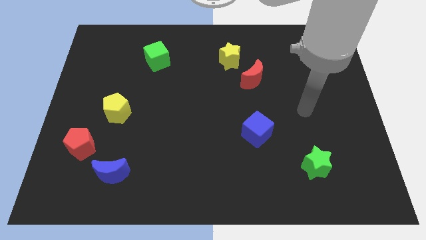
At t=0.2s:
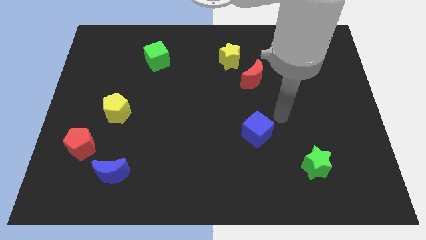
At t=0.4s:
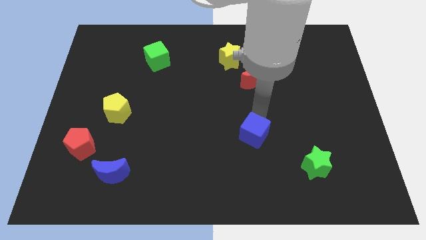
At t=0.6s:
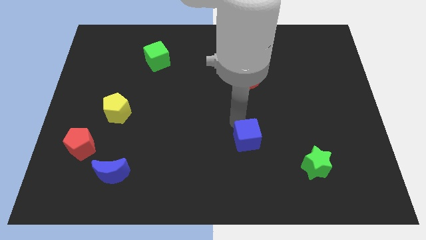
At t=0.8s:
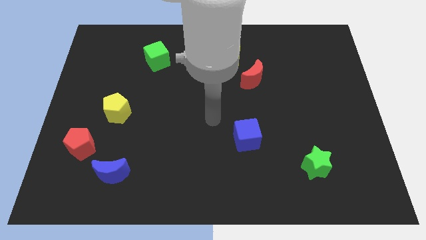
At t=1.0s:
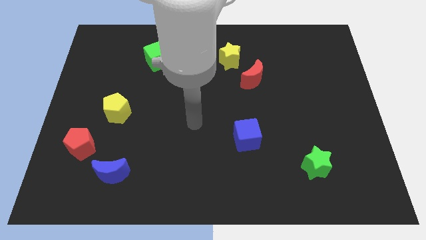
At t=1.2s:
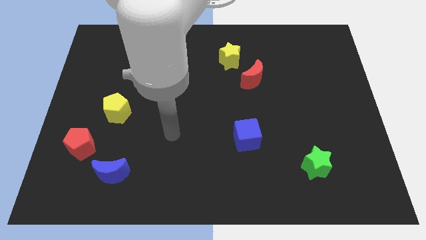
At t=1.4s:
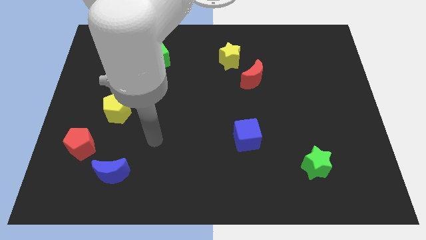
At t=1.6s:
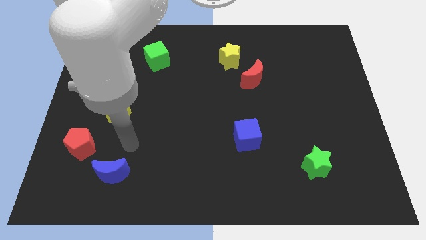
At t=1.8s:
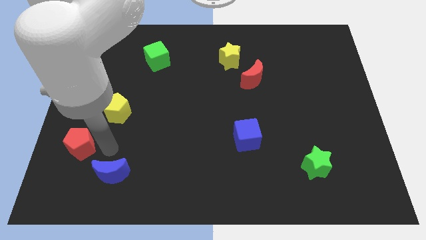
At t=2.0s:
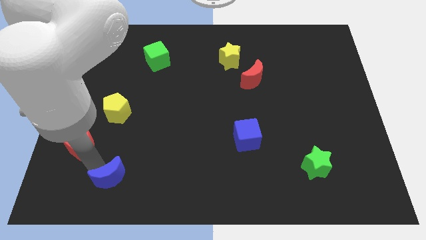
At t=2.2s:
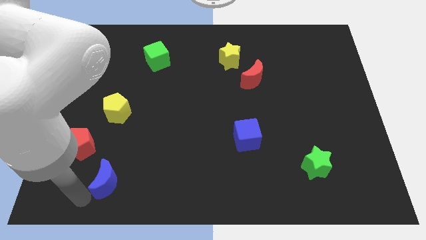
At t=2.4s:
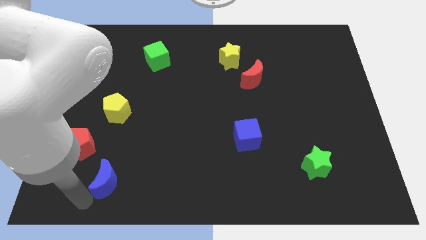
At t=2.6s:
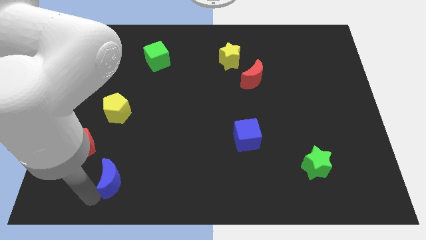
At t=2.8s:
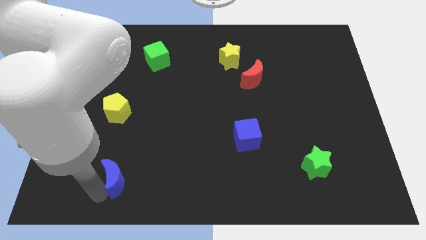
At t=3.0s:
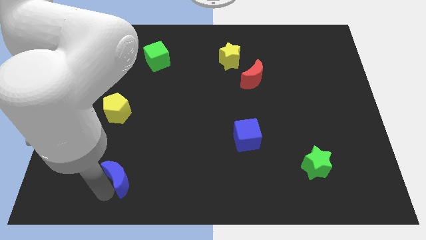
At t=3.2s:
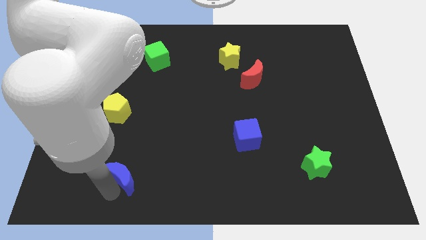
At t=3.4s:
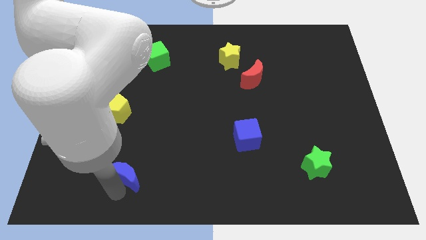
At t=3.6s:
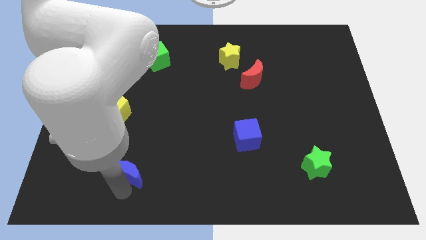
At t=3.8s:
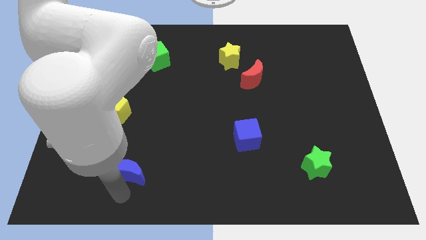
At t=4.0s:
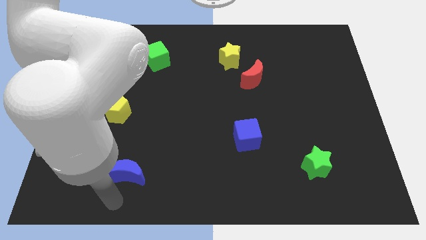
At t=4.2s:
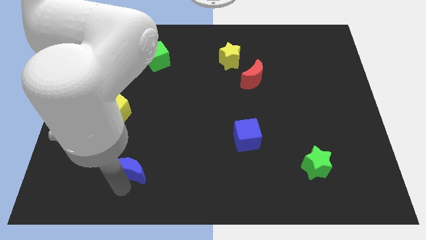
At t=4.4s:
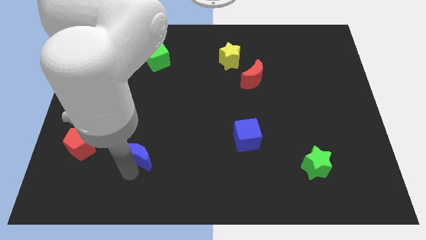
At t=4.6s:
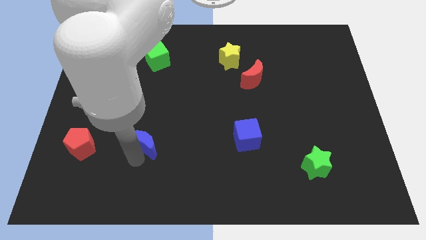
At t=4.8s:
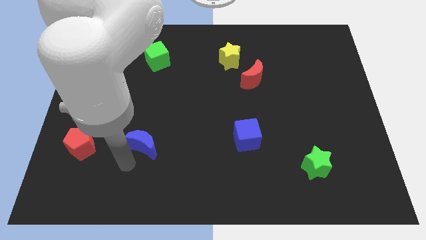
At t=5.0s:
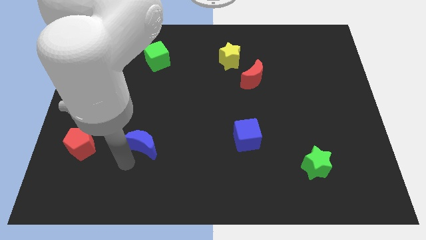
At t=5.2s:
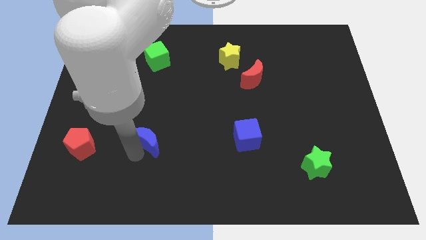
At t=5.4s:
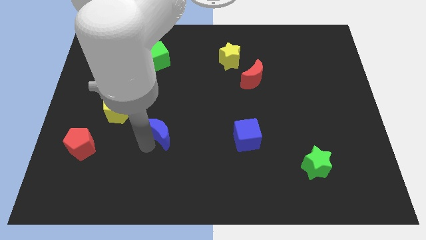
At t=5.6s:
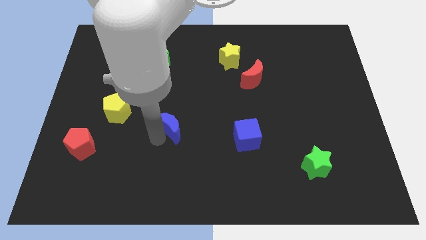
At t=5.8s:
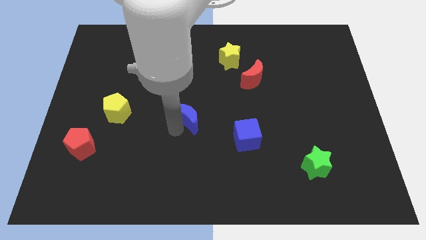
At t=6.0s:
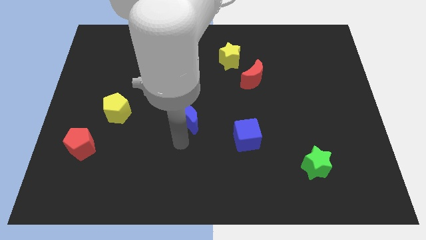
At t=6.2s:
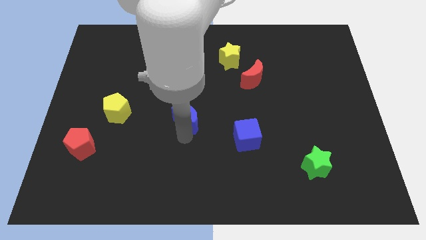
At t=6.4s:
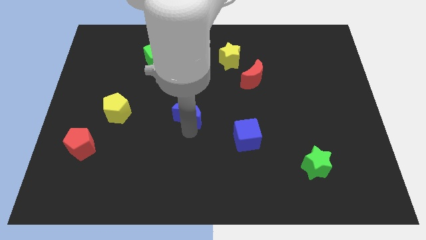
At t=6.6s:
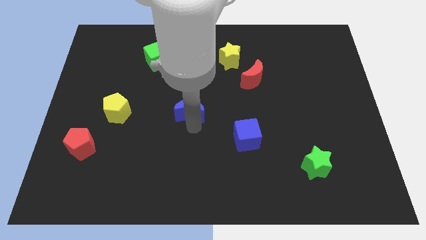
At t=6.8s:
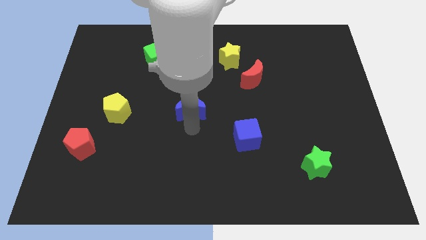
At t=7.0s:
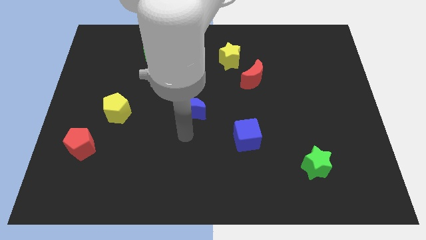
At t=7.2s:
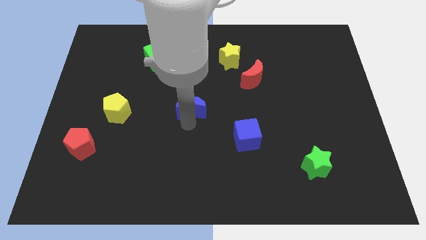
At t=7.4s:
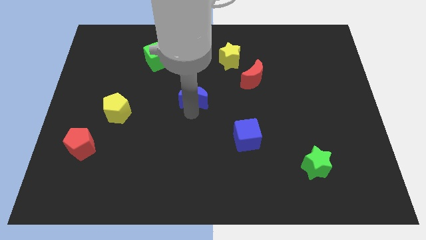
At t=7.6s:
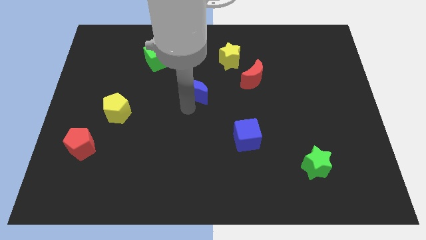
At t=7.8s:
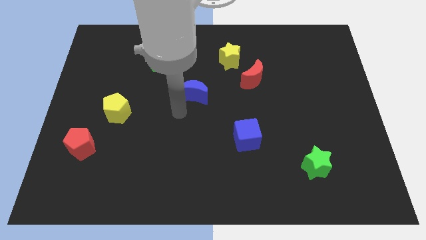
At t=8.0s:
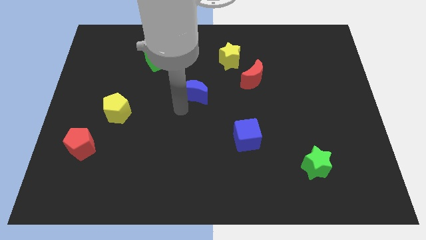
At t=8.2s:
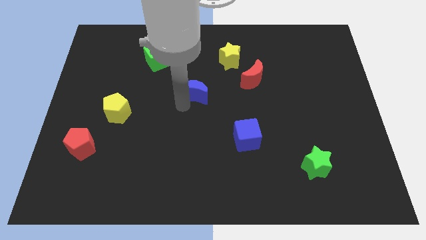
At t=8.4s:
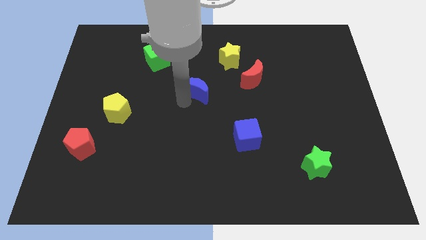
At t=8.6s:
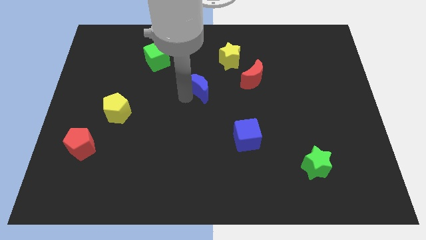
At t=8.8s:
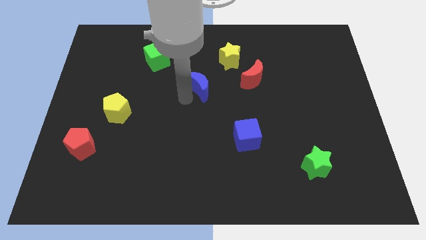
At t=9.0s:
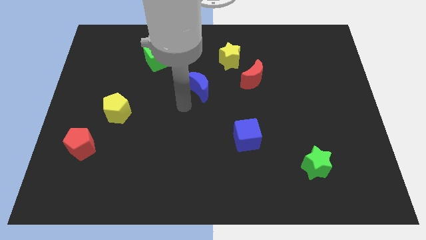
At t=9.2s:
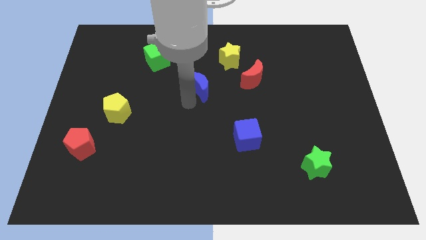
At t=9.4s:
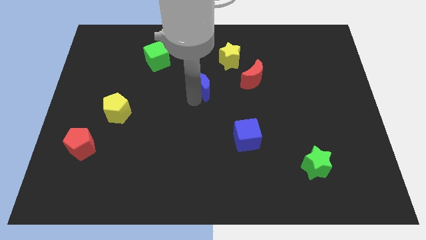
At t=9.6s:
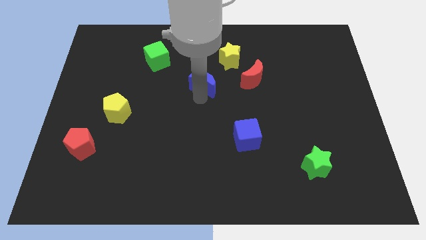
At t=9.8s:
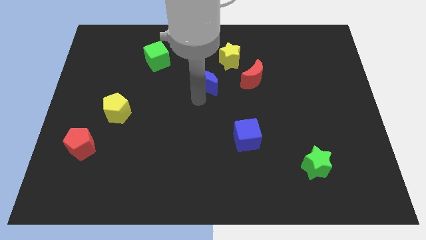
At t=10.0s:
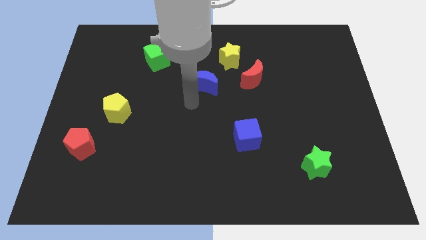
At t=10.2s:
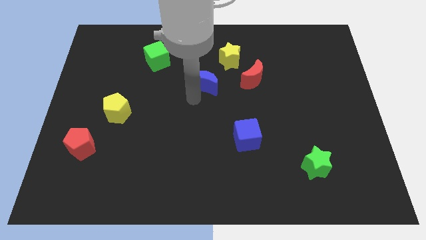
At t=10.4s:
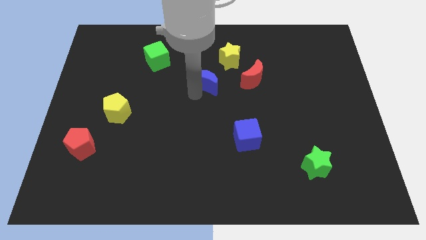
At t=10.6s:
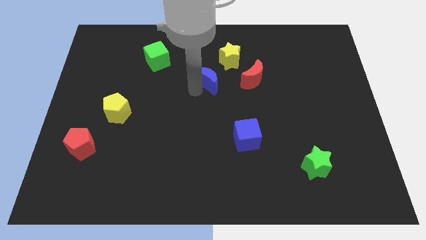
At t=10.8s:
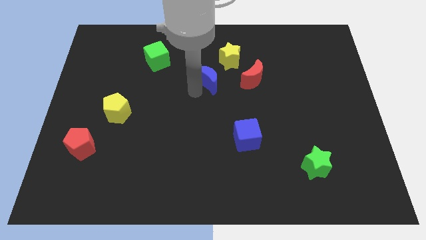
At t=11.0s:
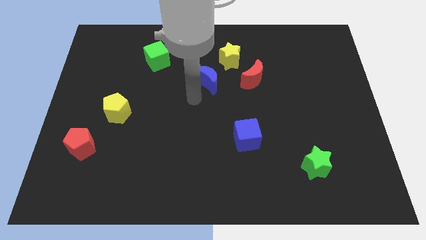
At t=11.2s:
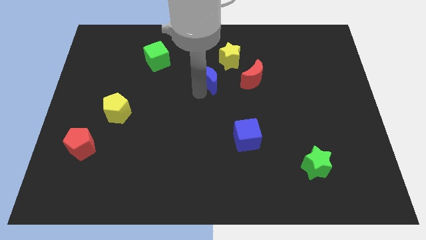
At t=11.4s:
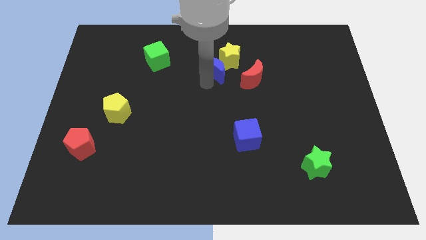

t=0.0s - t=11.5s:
push the blue moon next to the yellow star

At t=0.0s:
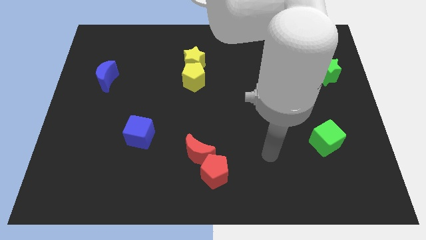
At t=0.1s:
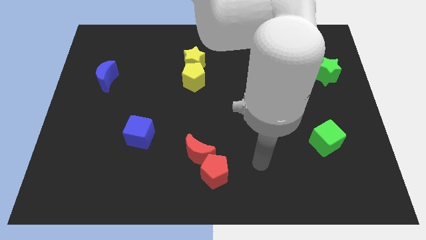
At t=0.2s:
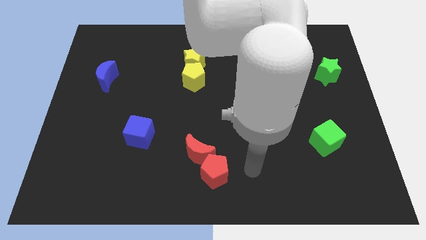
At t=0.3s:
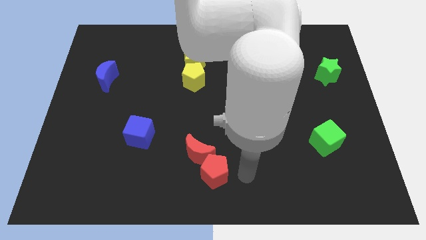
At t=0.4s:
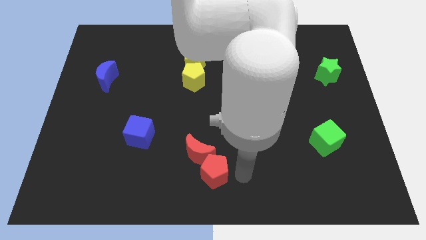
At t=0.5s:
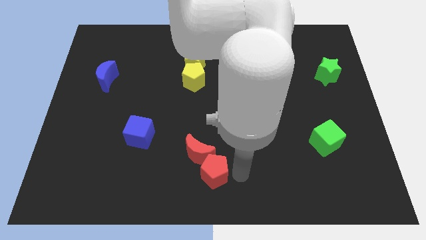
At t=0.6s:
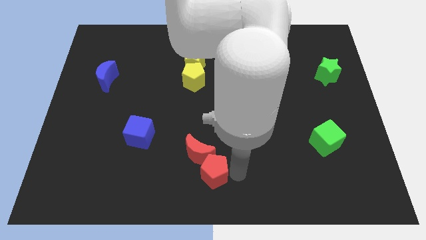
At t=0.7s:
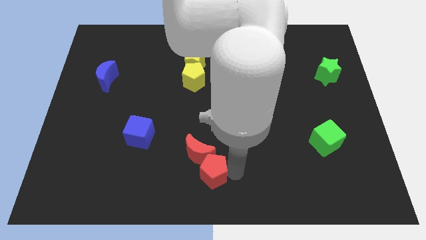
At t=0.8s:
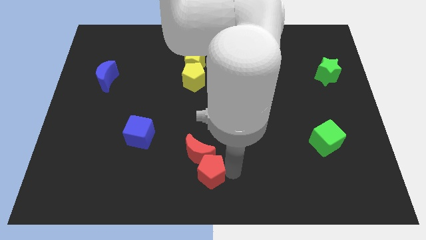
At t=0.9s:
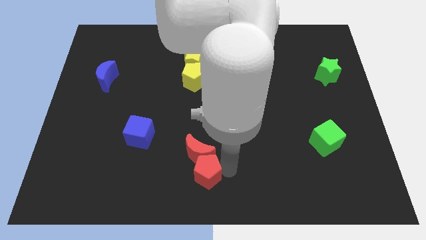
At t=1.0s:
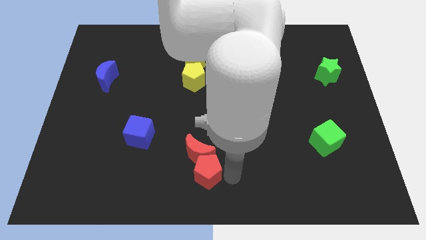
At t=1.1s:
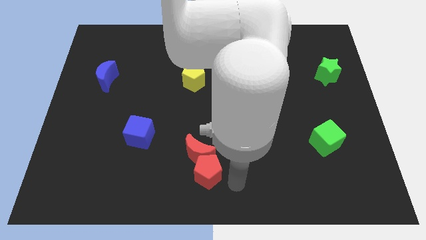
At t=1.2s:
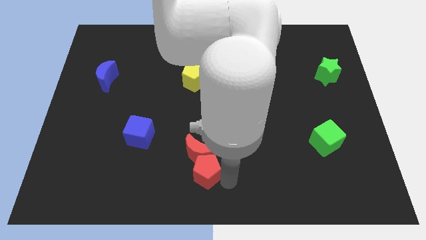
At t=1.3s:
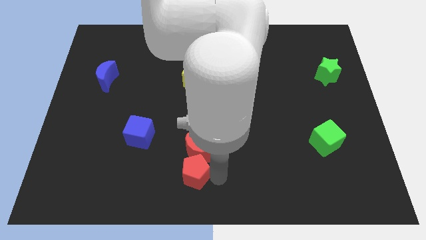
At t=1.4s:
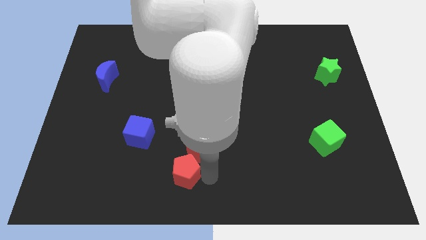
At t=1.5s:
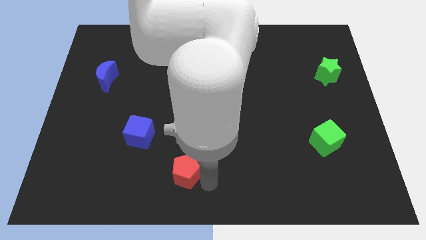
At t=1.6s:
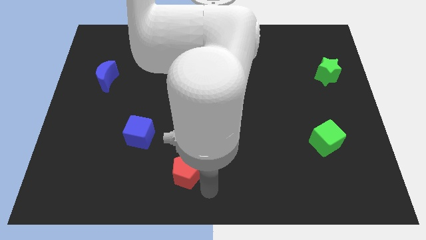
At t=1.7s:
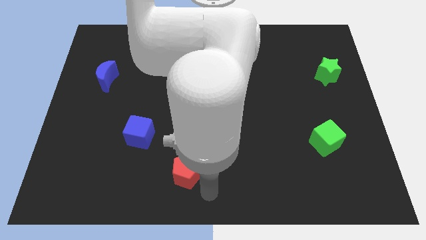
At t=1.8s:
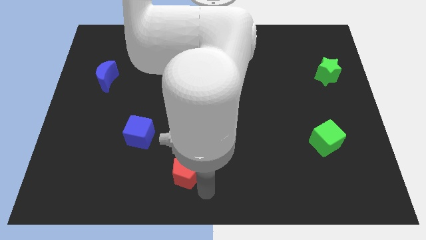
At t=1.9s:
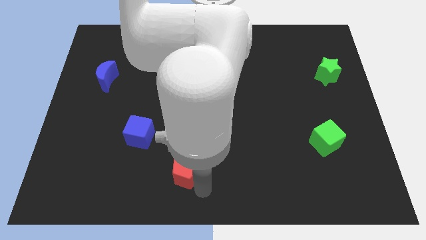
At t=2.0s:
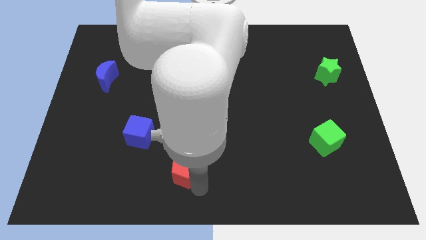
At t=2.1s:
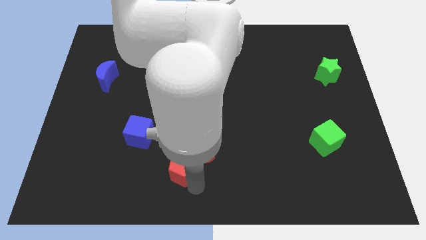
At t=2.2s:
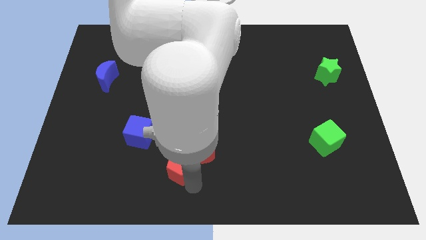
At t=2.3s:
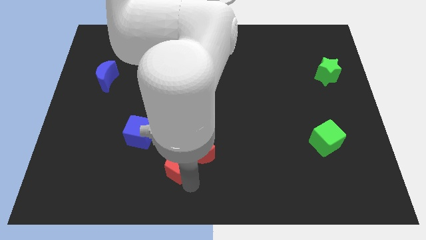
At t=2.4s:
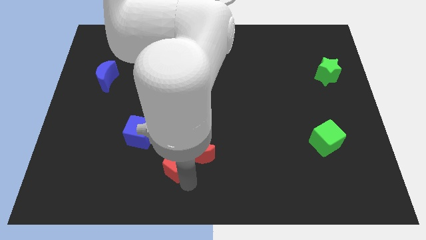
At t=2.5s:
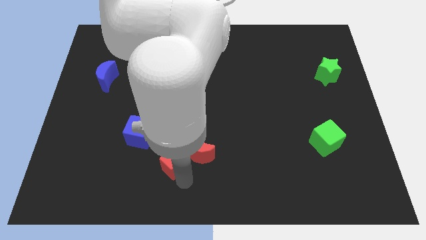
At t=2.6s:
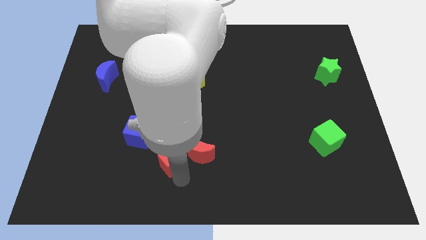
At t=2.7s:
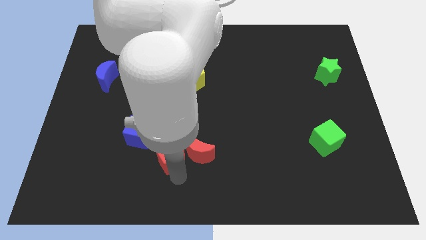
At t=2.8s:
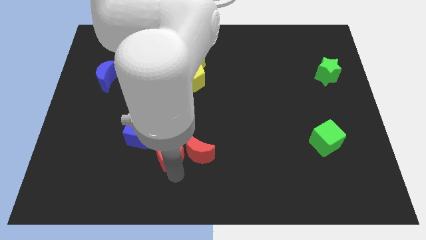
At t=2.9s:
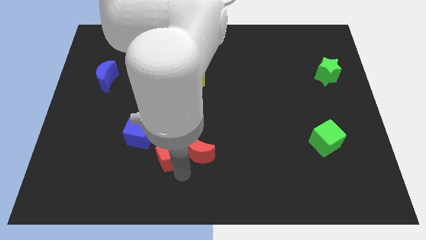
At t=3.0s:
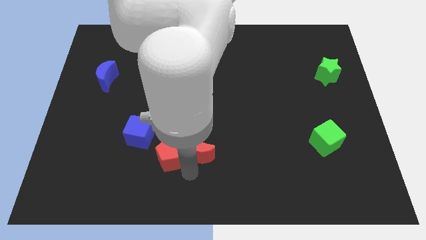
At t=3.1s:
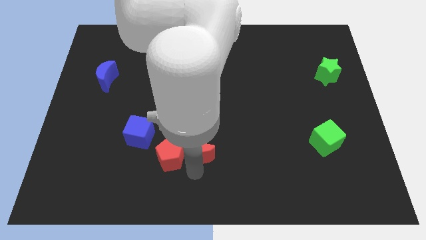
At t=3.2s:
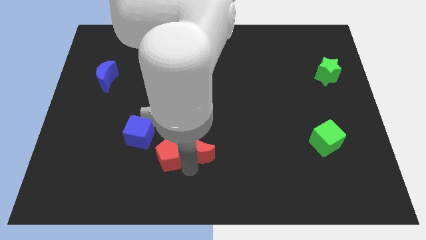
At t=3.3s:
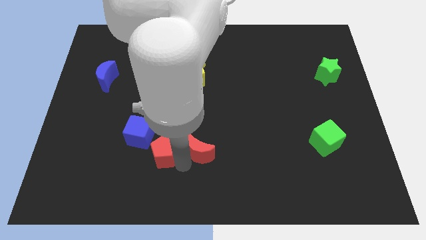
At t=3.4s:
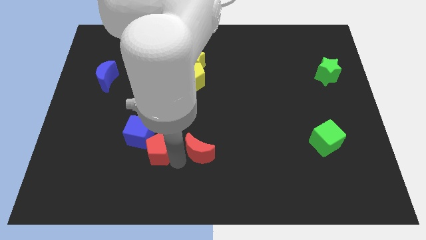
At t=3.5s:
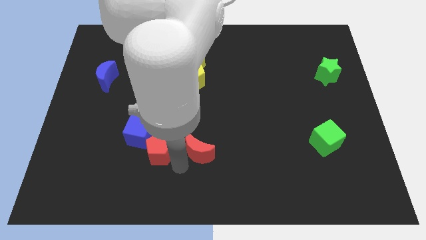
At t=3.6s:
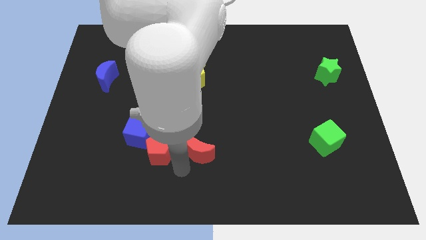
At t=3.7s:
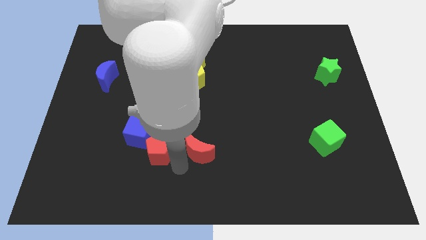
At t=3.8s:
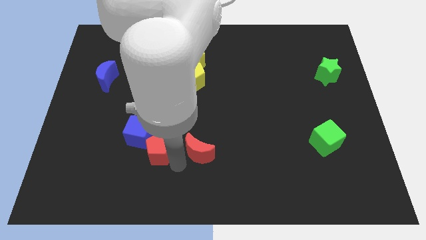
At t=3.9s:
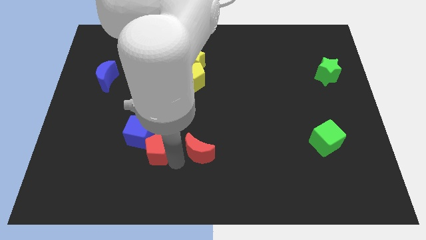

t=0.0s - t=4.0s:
slide the red pentagon towards the blue cube
